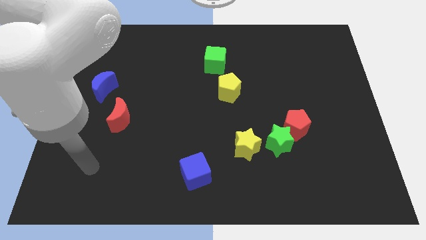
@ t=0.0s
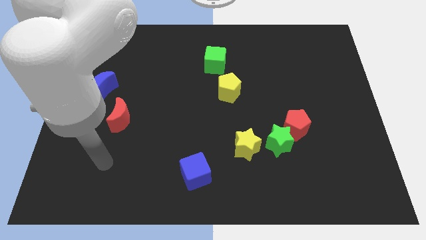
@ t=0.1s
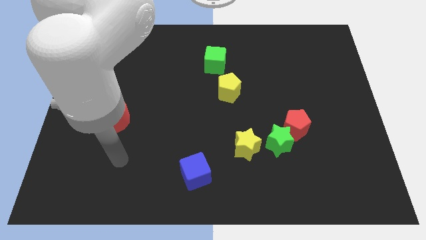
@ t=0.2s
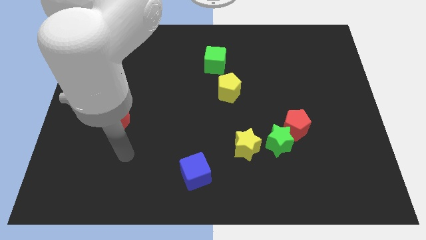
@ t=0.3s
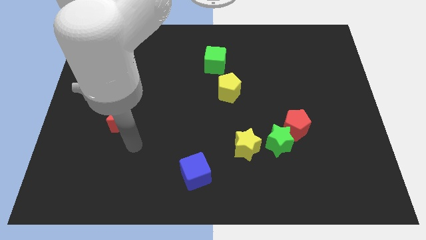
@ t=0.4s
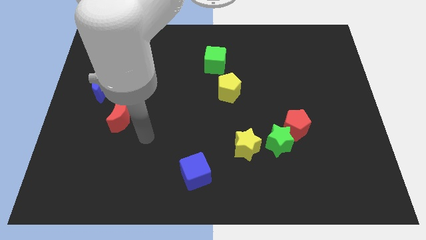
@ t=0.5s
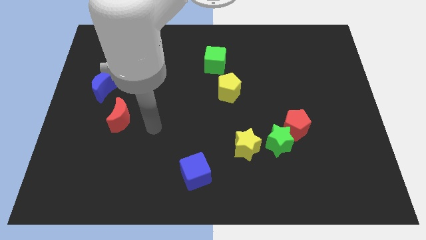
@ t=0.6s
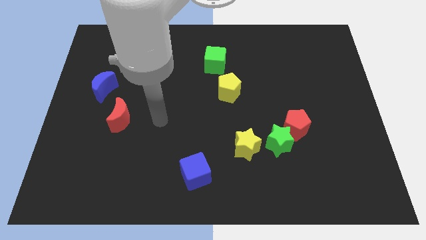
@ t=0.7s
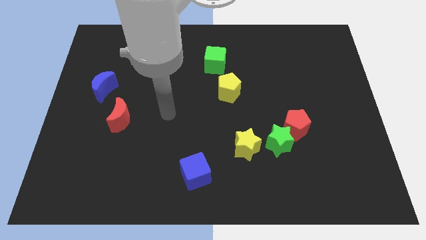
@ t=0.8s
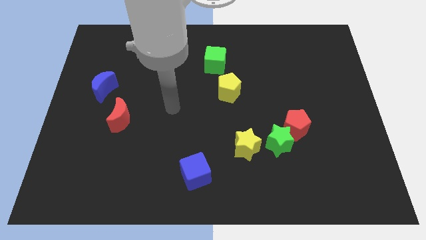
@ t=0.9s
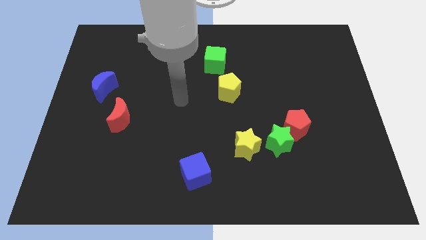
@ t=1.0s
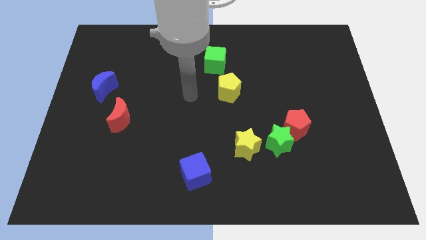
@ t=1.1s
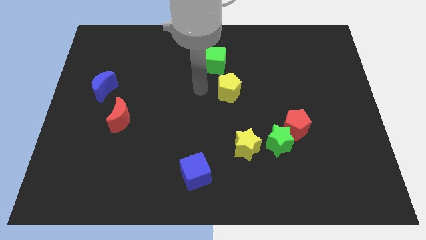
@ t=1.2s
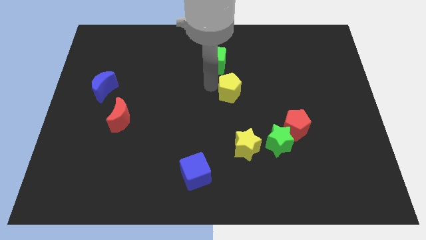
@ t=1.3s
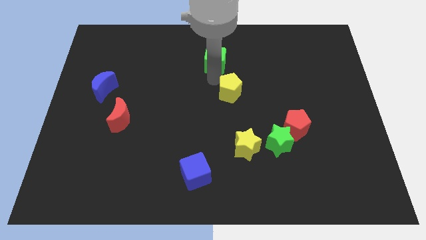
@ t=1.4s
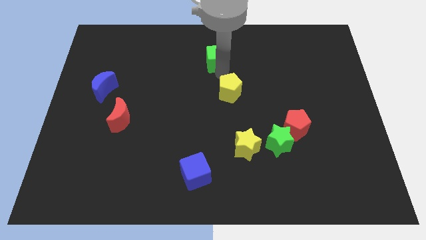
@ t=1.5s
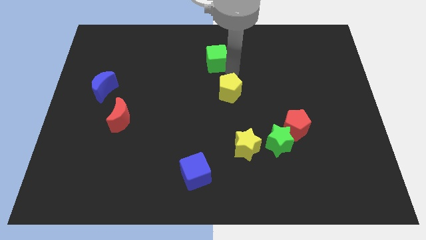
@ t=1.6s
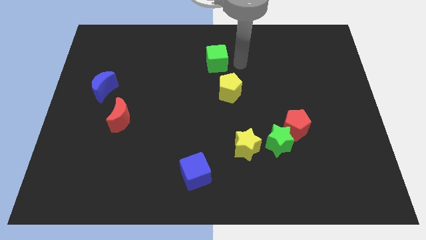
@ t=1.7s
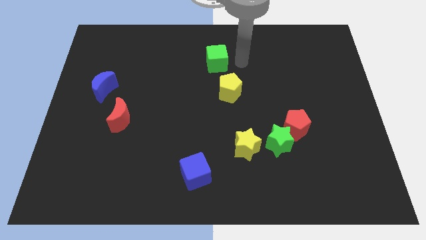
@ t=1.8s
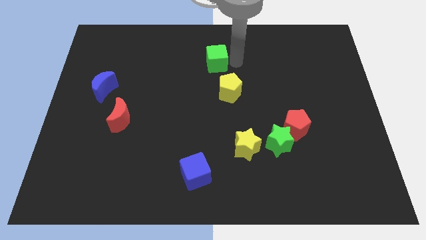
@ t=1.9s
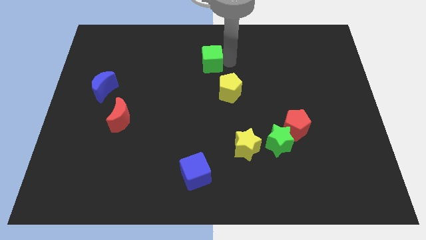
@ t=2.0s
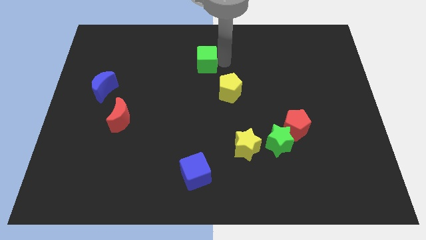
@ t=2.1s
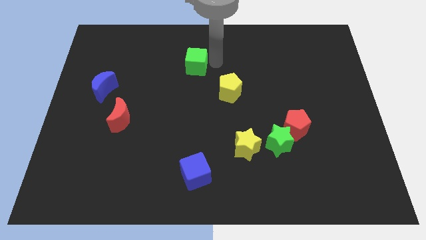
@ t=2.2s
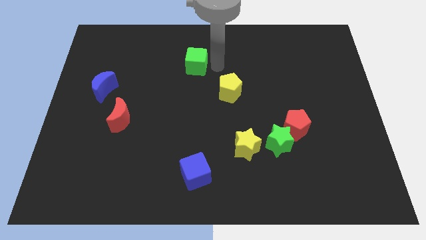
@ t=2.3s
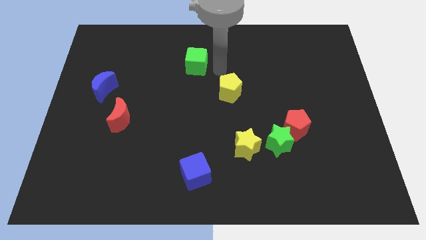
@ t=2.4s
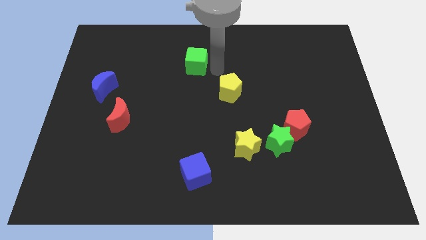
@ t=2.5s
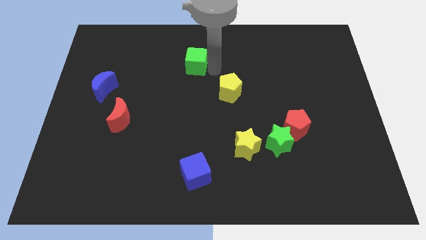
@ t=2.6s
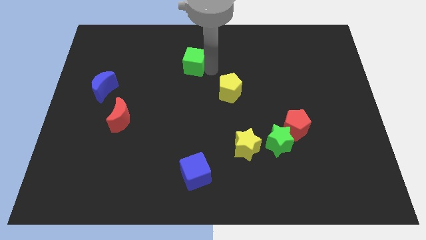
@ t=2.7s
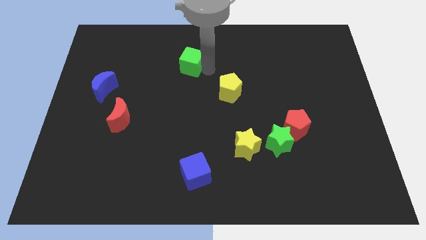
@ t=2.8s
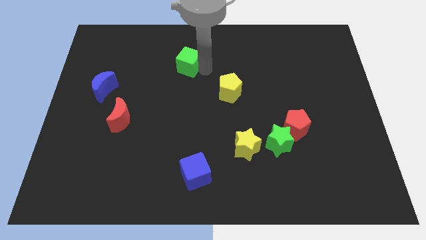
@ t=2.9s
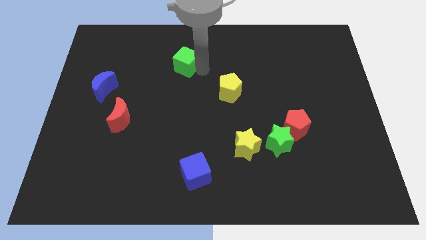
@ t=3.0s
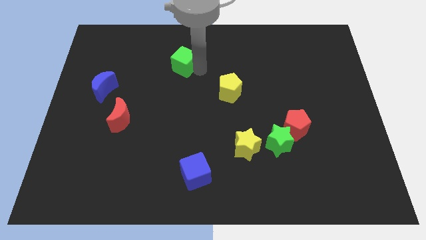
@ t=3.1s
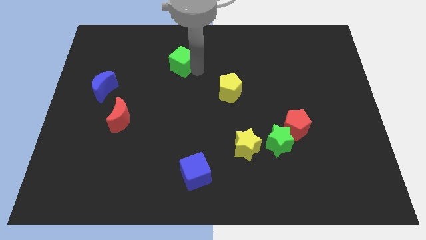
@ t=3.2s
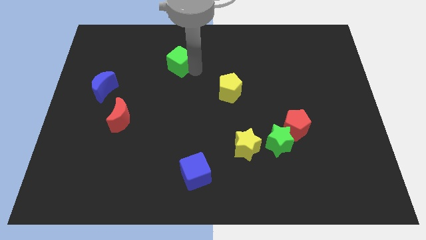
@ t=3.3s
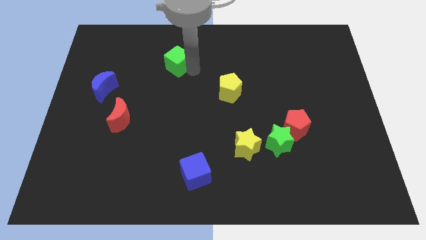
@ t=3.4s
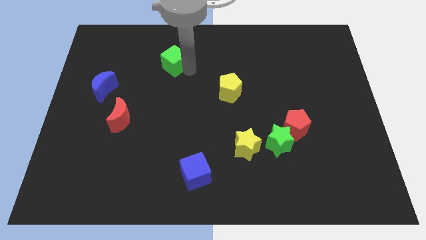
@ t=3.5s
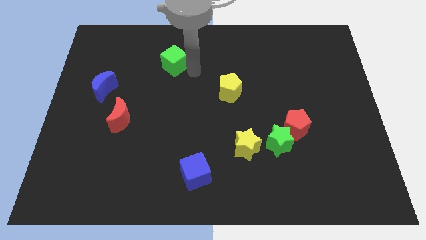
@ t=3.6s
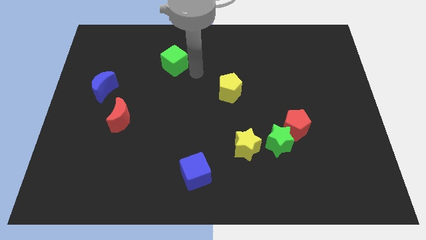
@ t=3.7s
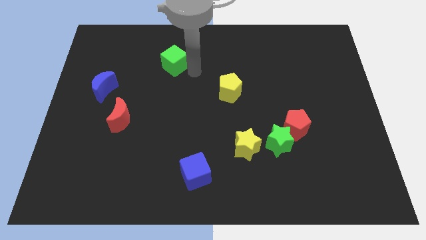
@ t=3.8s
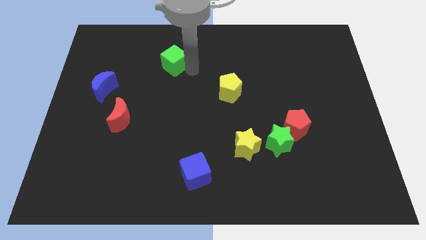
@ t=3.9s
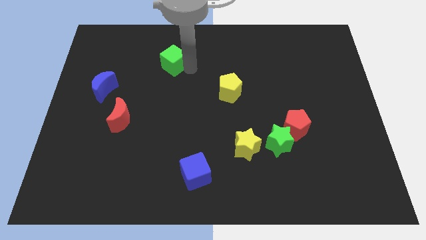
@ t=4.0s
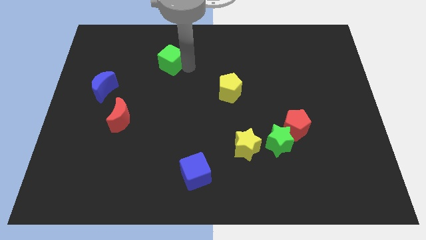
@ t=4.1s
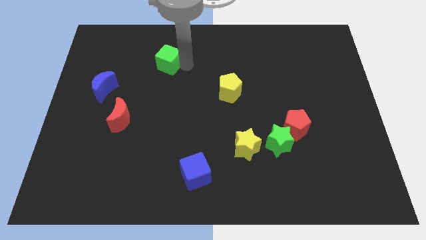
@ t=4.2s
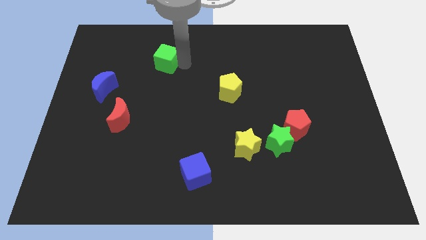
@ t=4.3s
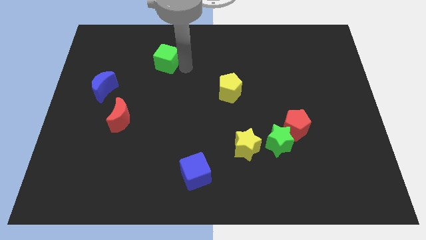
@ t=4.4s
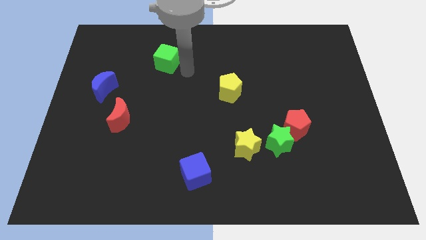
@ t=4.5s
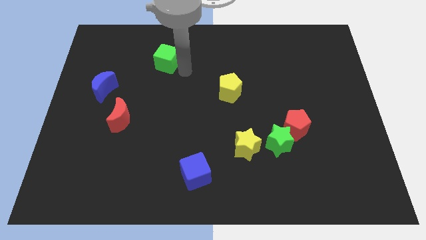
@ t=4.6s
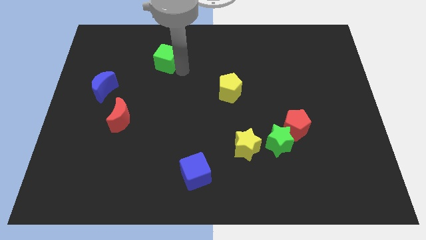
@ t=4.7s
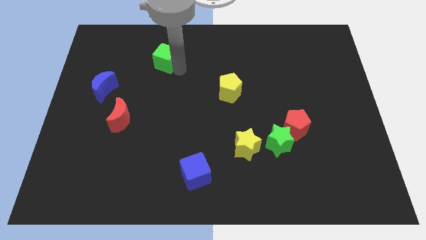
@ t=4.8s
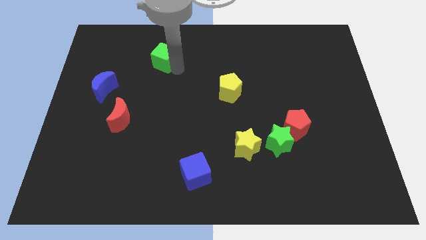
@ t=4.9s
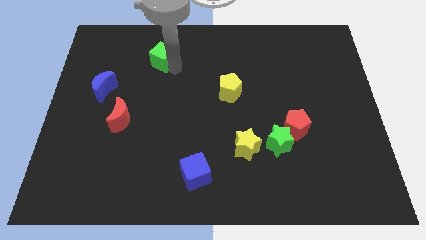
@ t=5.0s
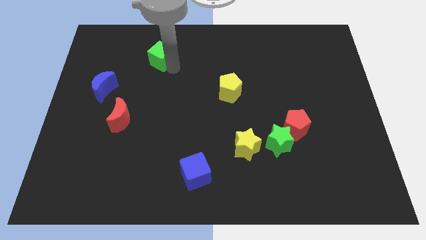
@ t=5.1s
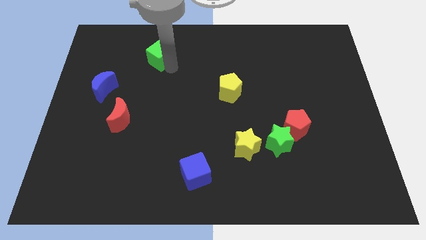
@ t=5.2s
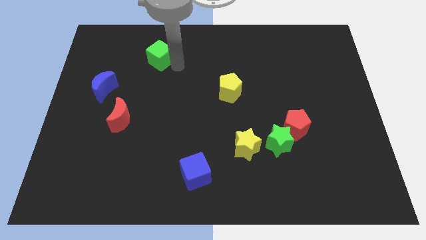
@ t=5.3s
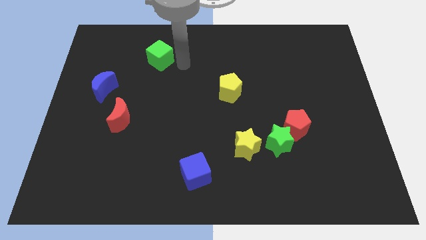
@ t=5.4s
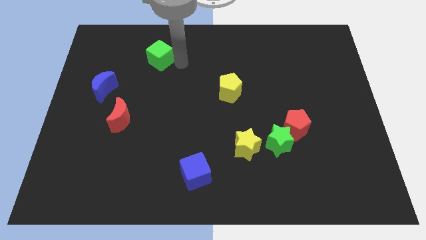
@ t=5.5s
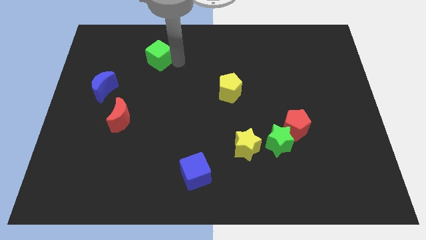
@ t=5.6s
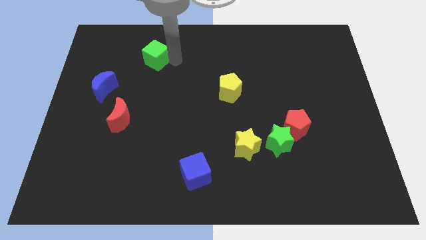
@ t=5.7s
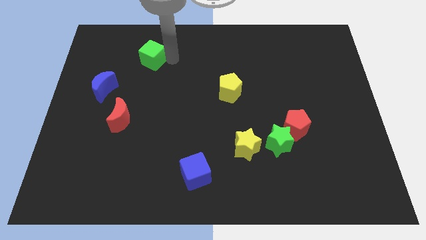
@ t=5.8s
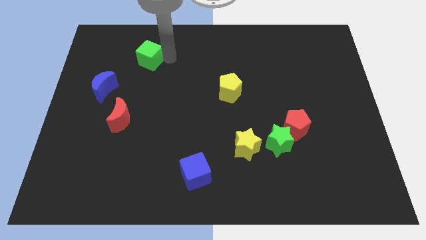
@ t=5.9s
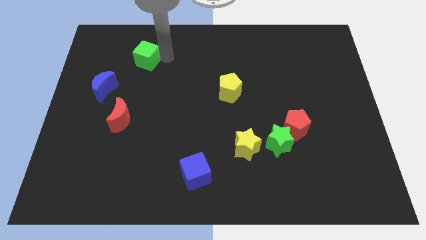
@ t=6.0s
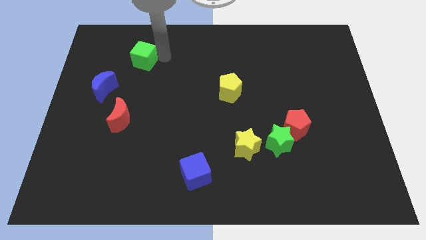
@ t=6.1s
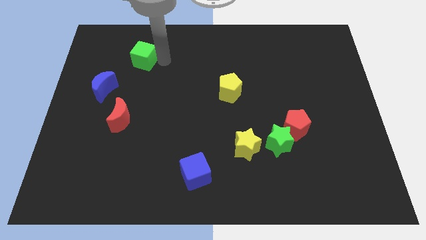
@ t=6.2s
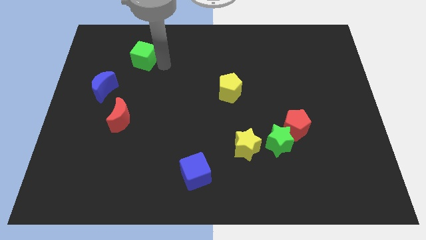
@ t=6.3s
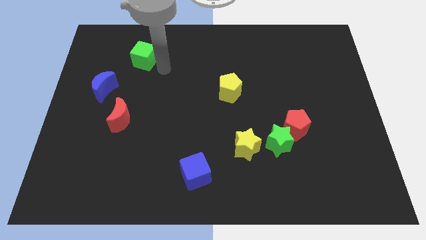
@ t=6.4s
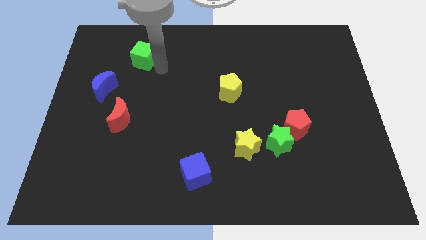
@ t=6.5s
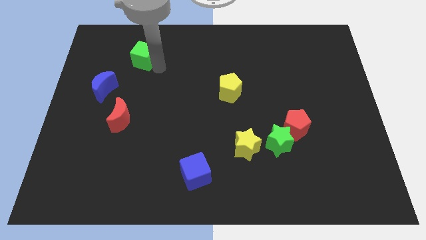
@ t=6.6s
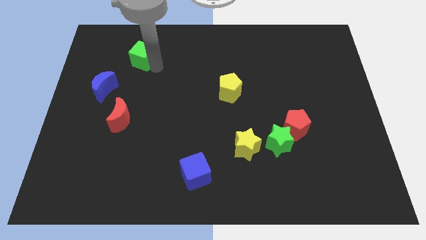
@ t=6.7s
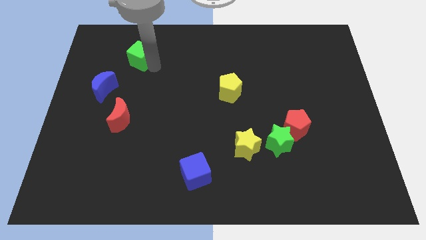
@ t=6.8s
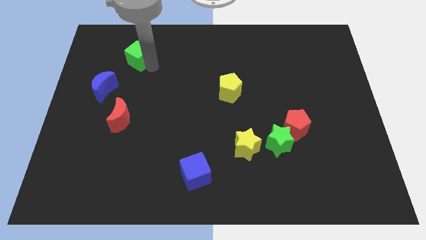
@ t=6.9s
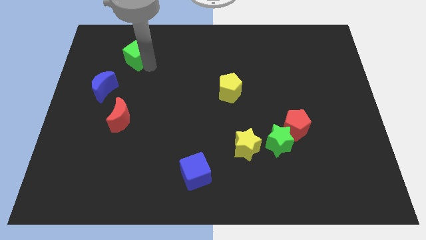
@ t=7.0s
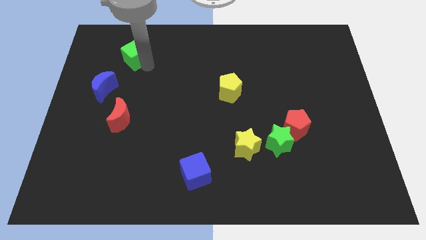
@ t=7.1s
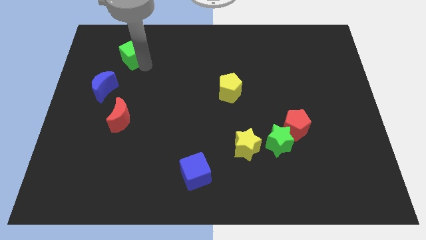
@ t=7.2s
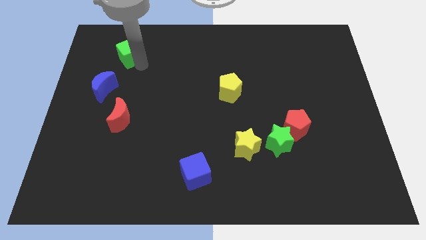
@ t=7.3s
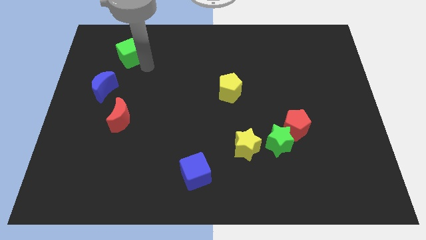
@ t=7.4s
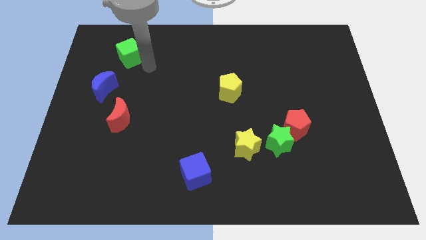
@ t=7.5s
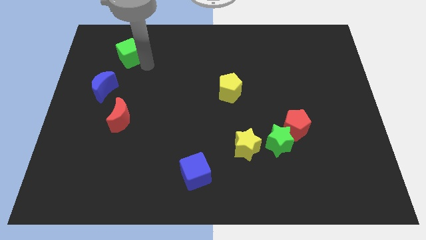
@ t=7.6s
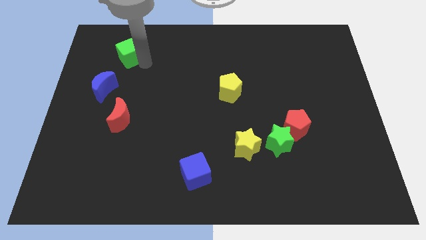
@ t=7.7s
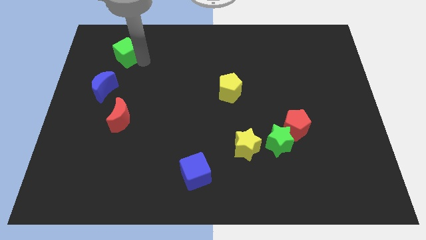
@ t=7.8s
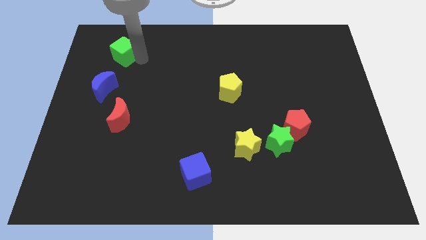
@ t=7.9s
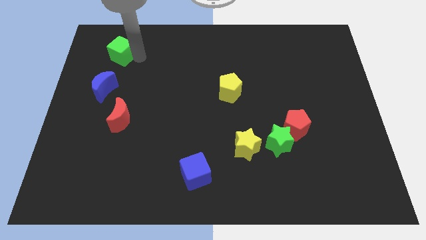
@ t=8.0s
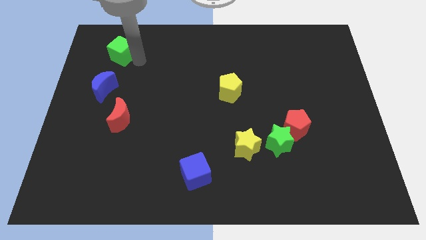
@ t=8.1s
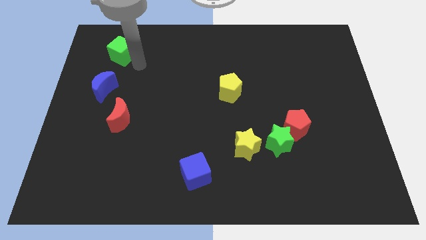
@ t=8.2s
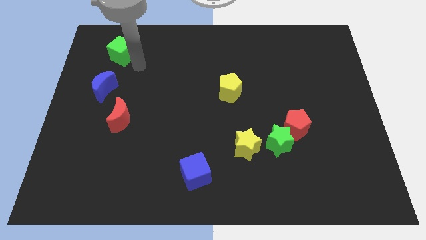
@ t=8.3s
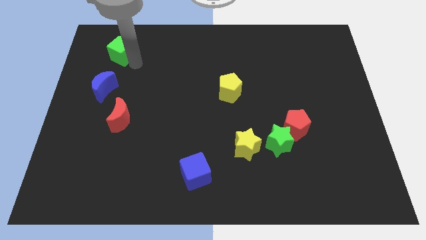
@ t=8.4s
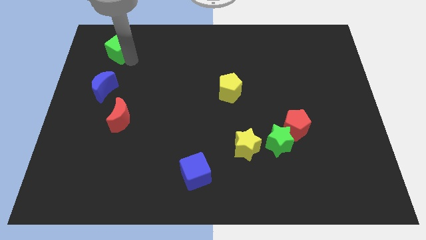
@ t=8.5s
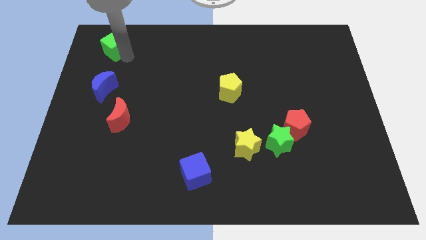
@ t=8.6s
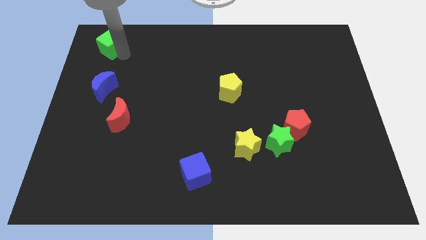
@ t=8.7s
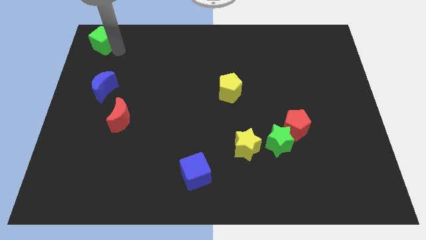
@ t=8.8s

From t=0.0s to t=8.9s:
slide the green cube to the upper left corner
